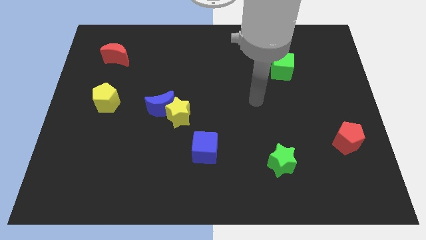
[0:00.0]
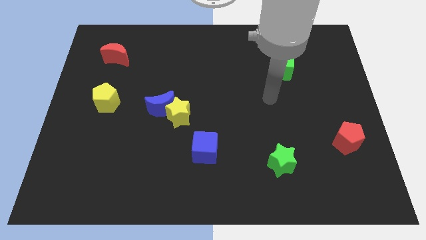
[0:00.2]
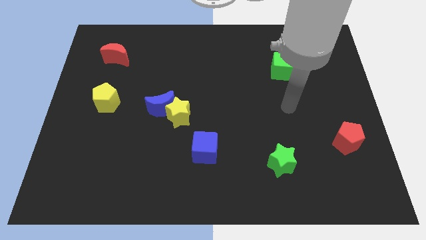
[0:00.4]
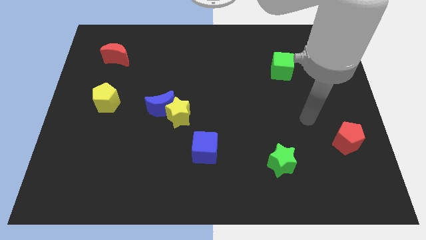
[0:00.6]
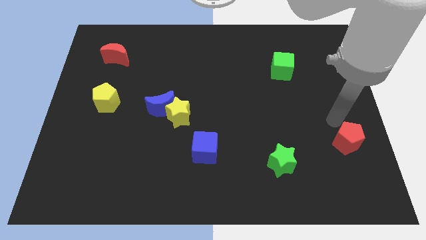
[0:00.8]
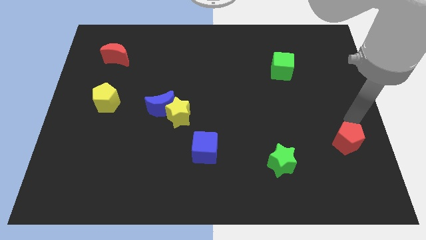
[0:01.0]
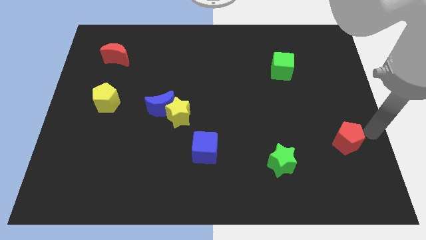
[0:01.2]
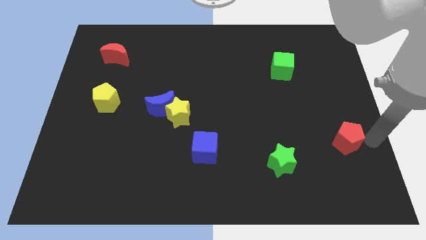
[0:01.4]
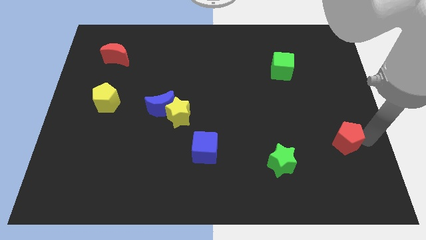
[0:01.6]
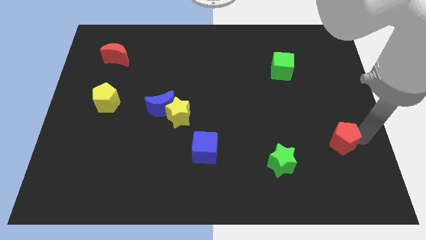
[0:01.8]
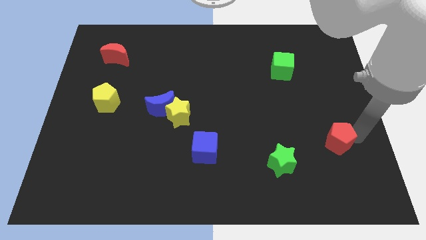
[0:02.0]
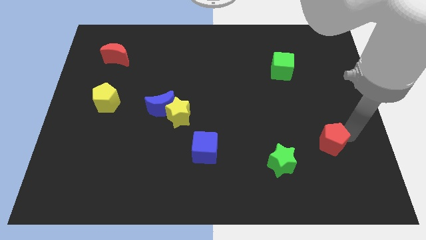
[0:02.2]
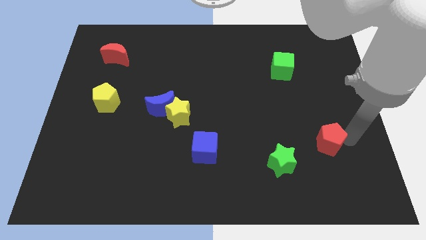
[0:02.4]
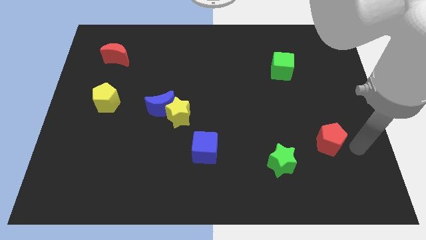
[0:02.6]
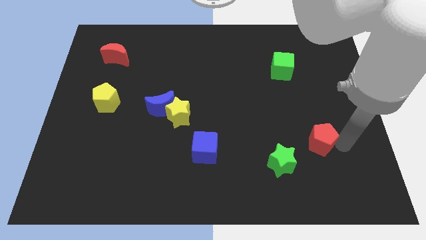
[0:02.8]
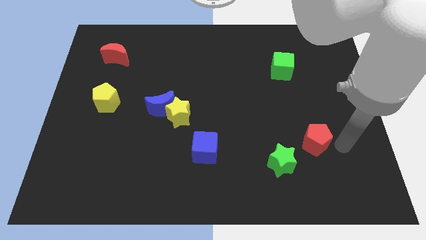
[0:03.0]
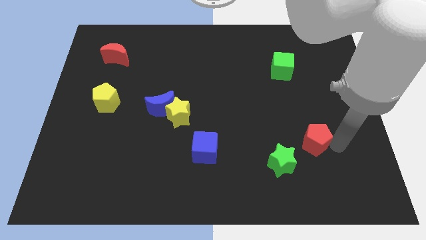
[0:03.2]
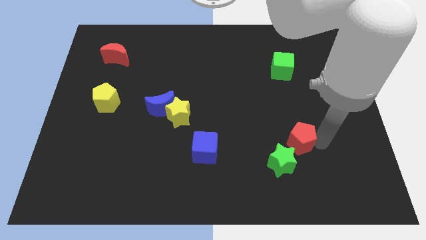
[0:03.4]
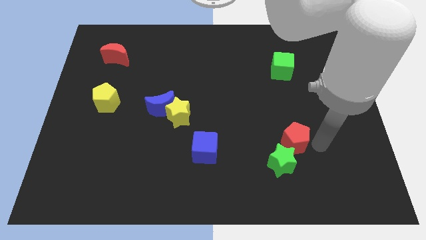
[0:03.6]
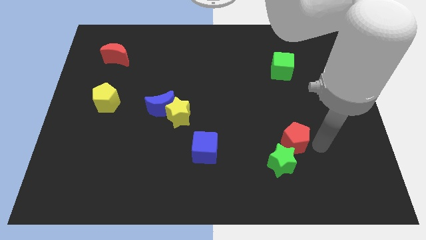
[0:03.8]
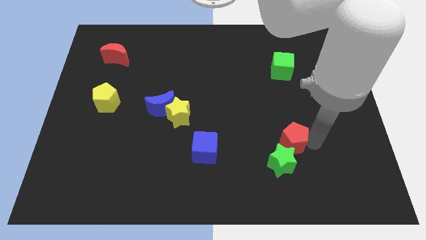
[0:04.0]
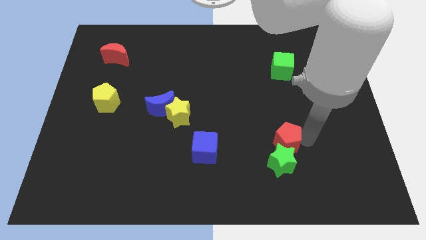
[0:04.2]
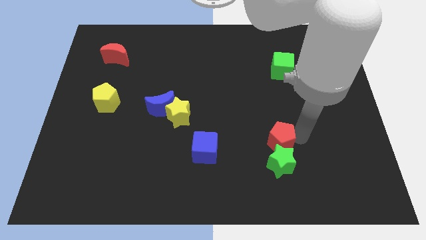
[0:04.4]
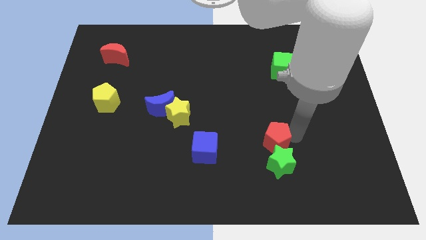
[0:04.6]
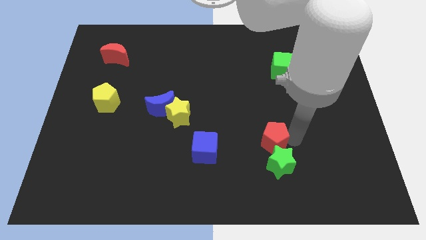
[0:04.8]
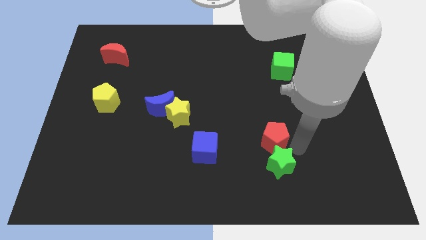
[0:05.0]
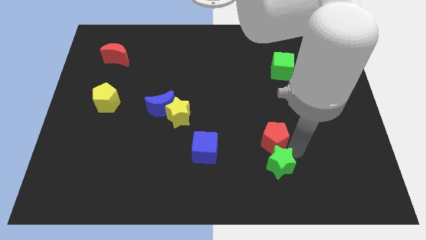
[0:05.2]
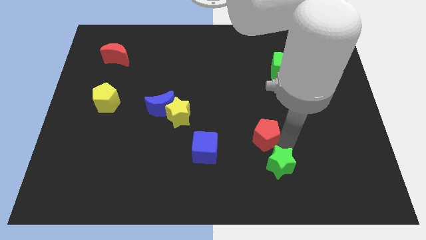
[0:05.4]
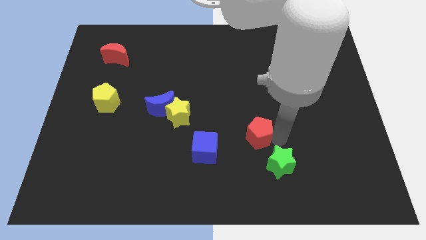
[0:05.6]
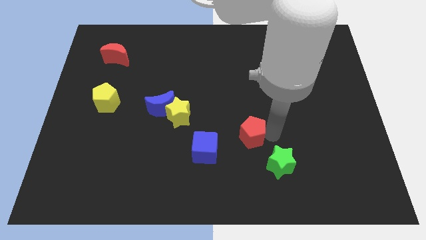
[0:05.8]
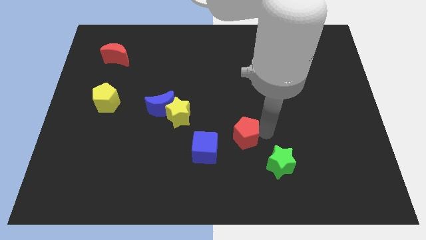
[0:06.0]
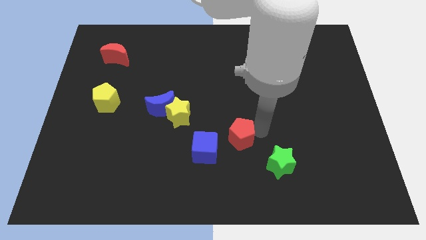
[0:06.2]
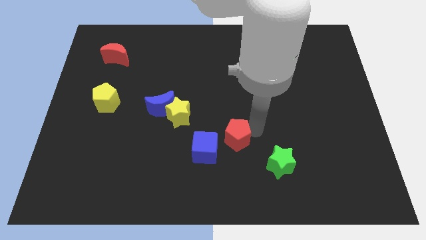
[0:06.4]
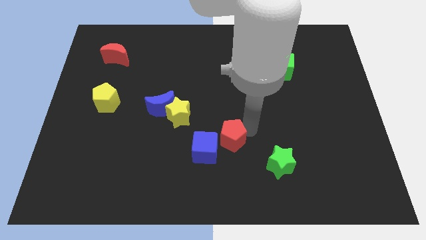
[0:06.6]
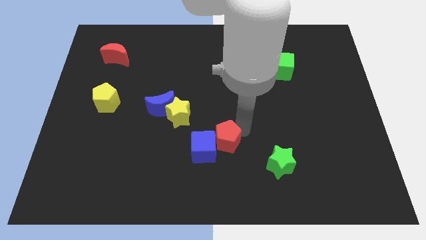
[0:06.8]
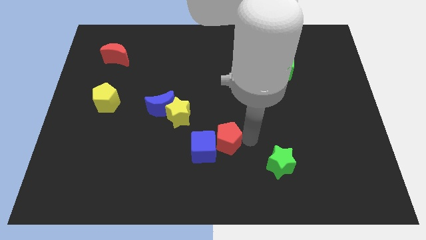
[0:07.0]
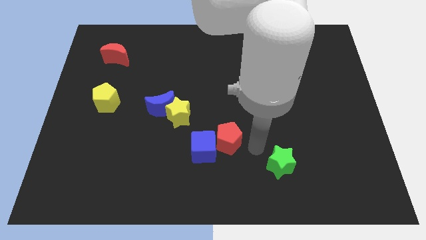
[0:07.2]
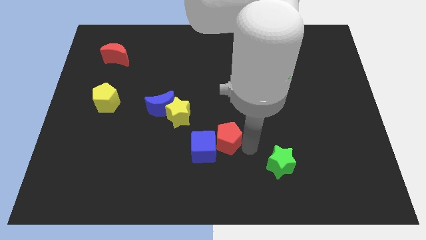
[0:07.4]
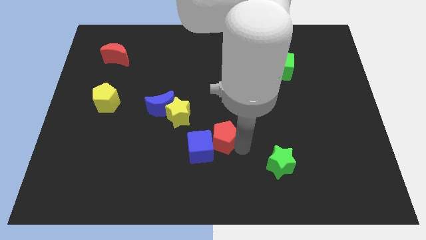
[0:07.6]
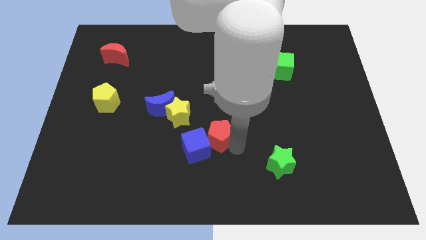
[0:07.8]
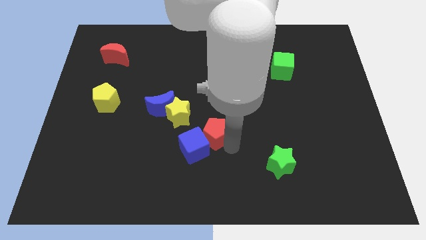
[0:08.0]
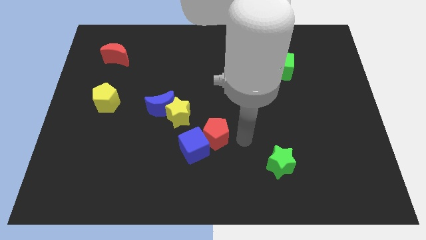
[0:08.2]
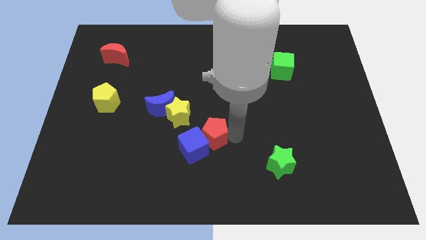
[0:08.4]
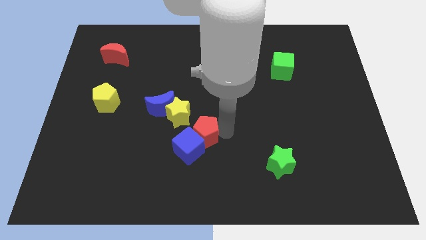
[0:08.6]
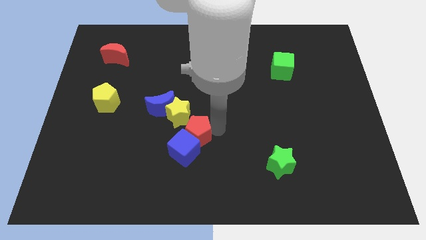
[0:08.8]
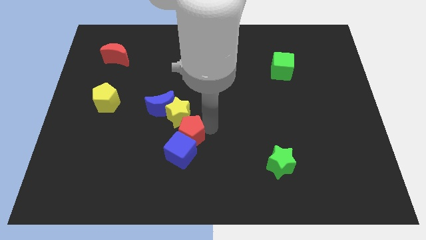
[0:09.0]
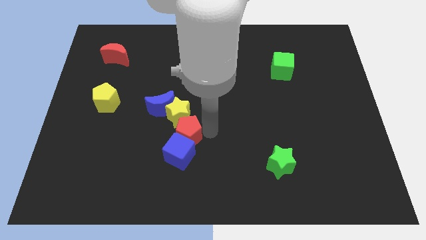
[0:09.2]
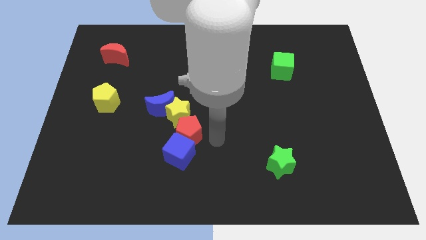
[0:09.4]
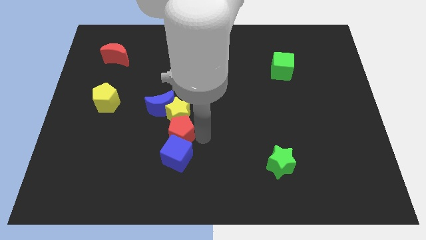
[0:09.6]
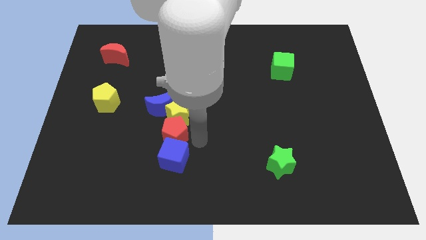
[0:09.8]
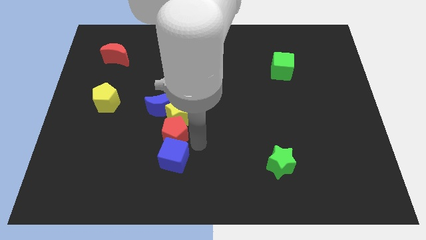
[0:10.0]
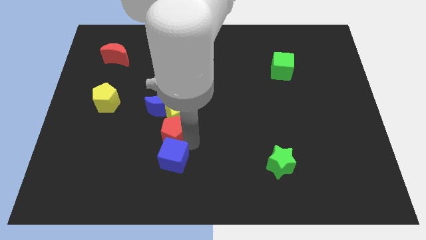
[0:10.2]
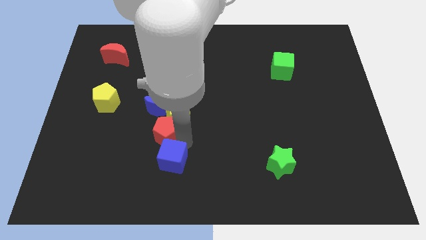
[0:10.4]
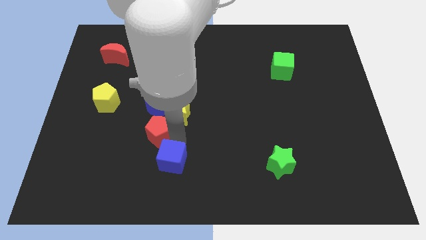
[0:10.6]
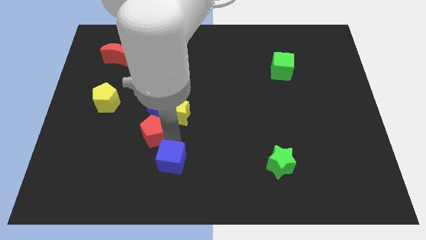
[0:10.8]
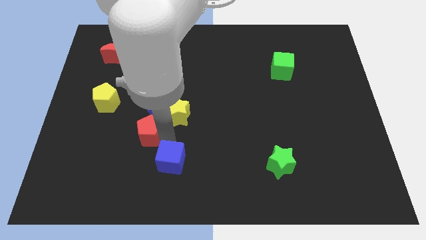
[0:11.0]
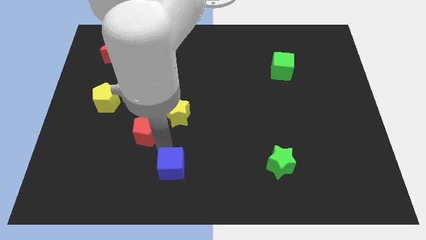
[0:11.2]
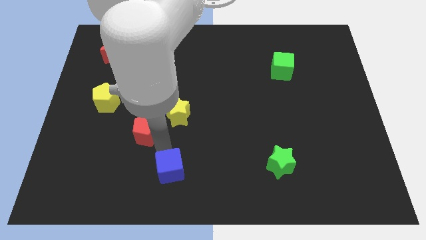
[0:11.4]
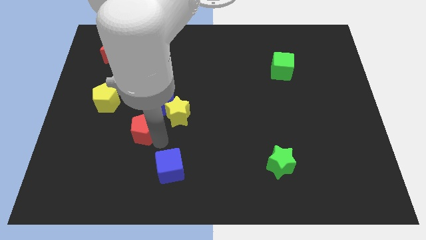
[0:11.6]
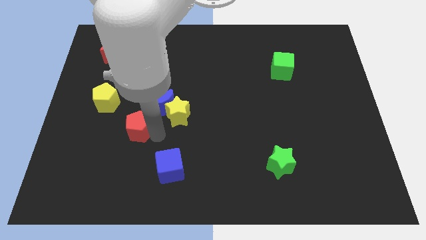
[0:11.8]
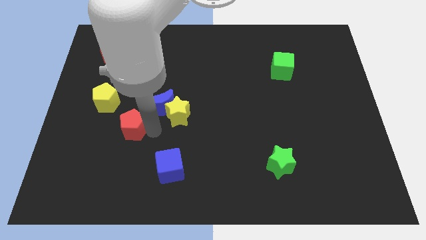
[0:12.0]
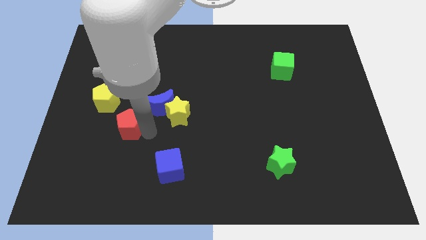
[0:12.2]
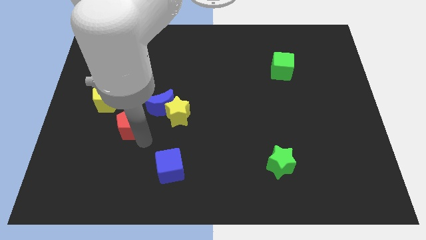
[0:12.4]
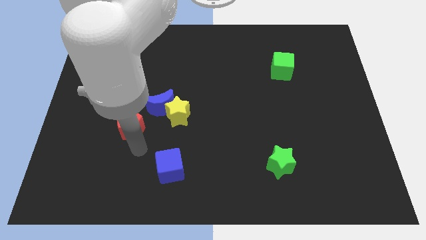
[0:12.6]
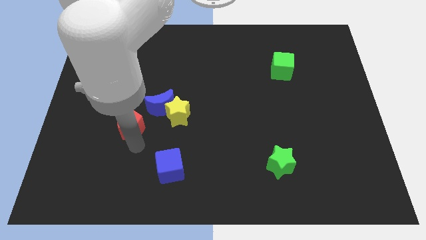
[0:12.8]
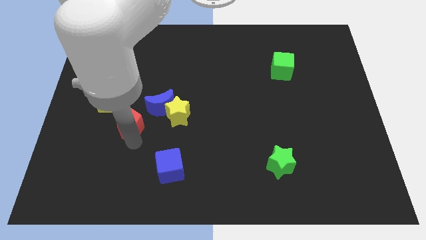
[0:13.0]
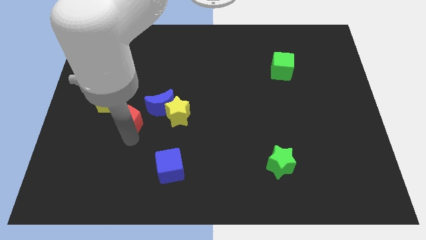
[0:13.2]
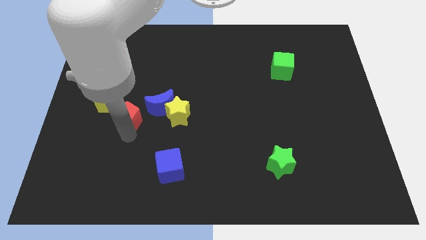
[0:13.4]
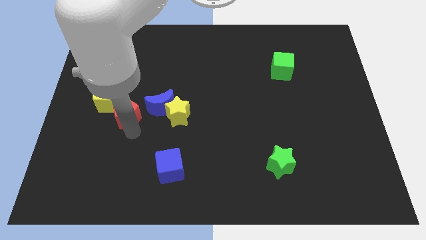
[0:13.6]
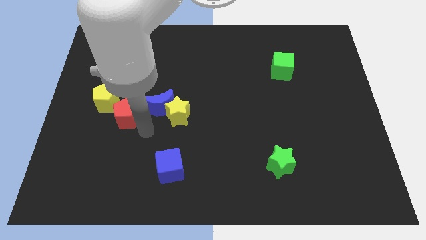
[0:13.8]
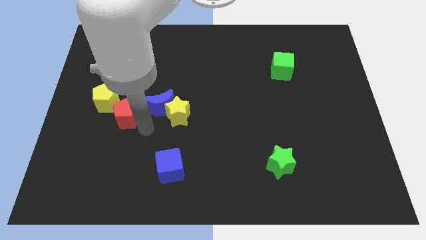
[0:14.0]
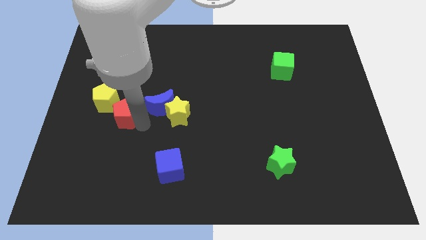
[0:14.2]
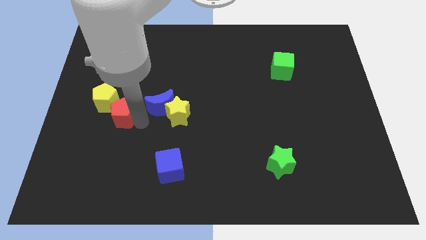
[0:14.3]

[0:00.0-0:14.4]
slide the red pentagon to the yellow pentagon
